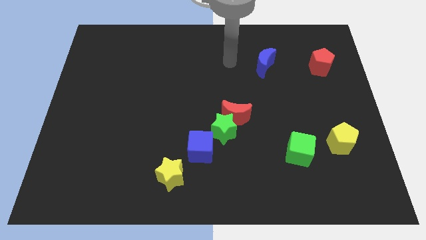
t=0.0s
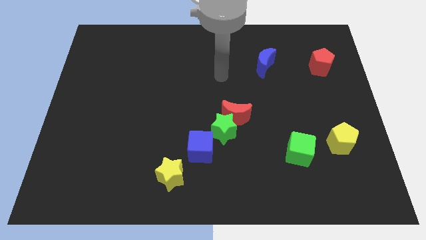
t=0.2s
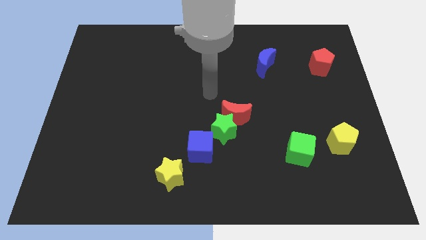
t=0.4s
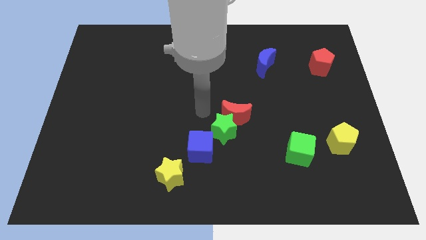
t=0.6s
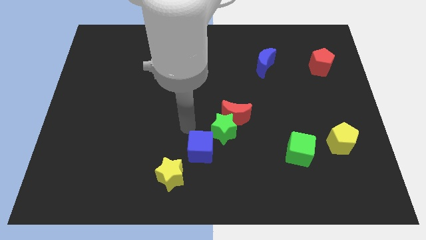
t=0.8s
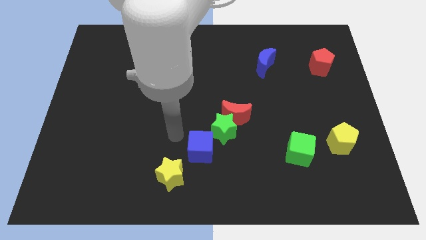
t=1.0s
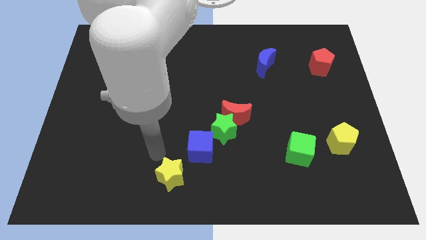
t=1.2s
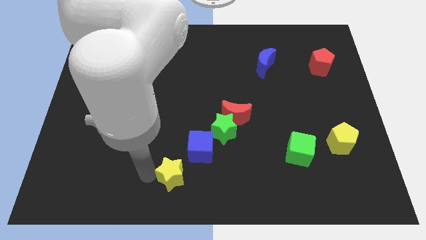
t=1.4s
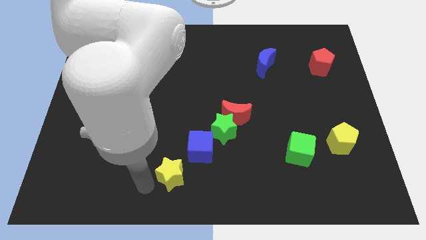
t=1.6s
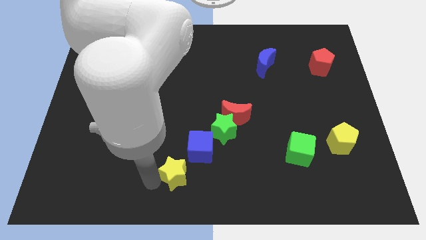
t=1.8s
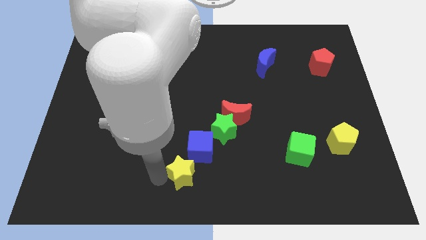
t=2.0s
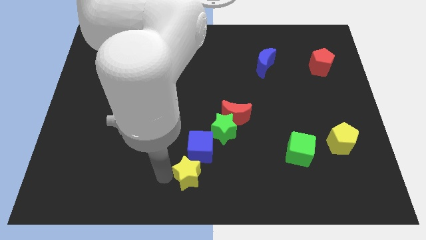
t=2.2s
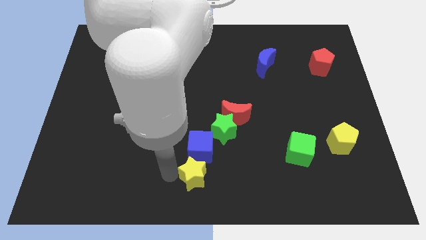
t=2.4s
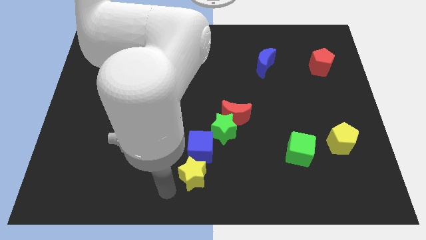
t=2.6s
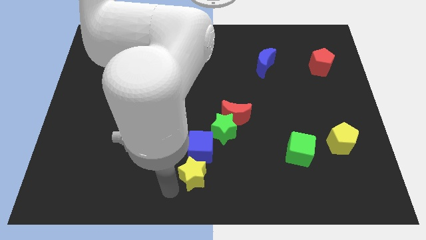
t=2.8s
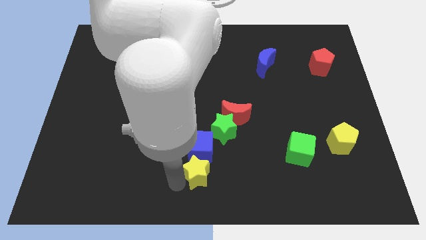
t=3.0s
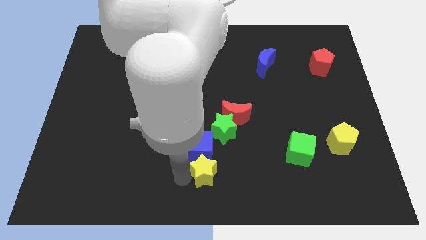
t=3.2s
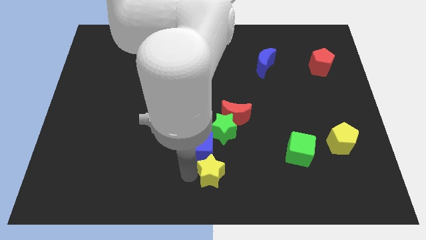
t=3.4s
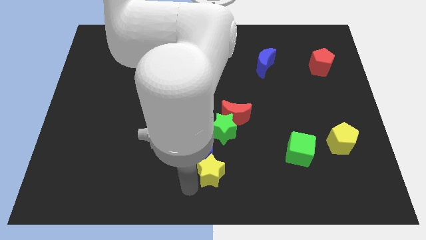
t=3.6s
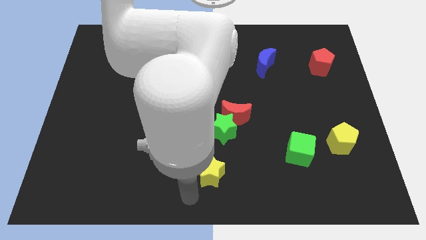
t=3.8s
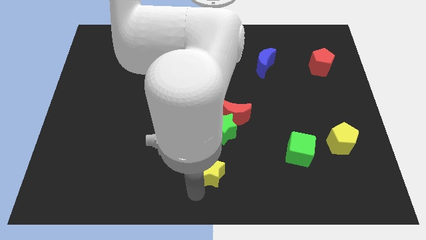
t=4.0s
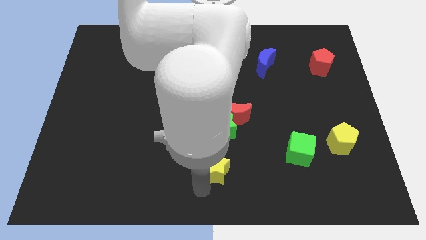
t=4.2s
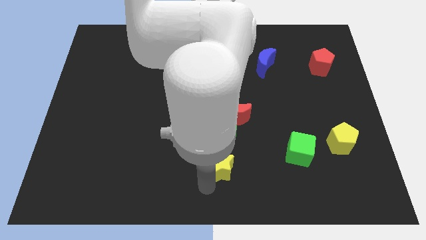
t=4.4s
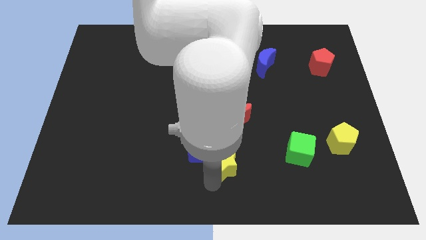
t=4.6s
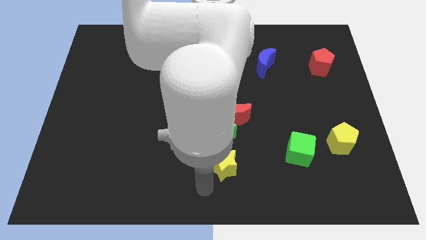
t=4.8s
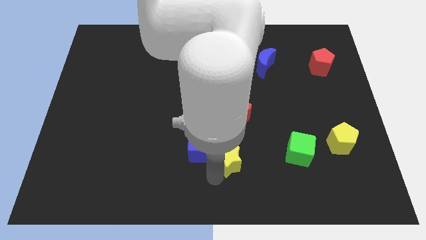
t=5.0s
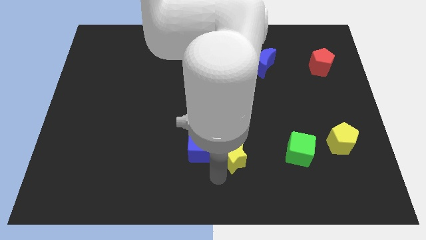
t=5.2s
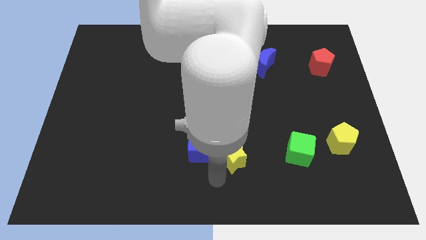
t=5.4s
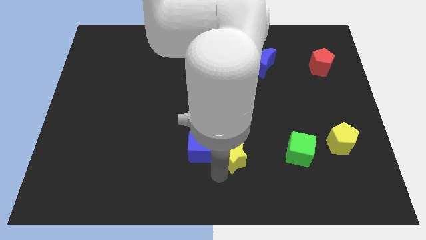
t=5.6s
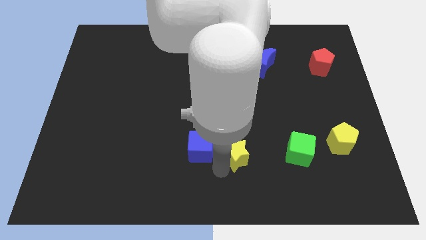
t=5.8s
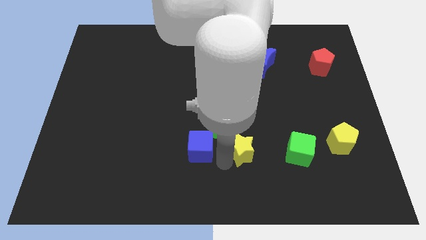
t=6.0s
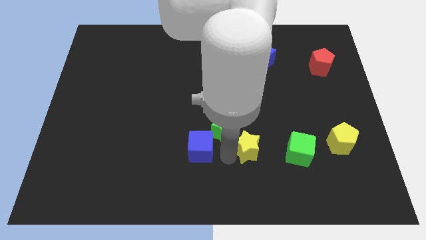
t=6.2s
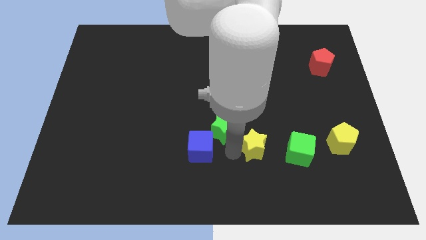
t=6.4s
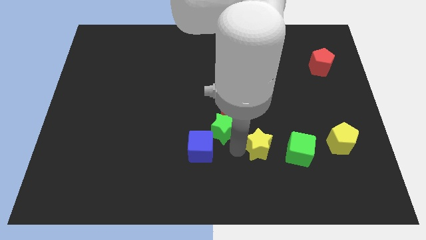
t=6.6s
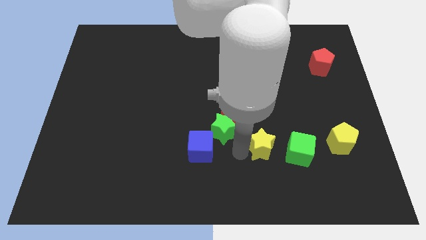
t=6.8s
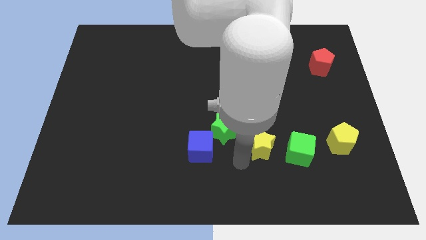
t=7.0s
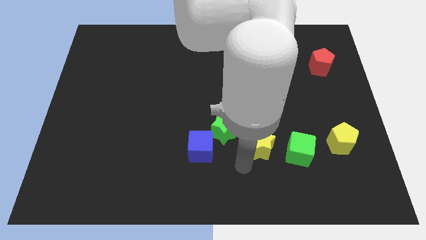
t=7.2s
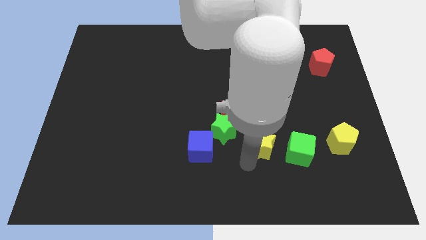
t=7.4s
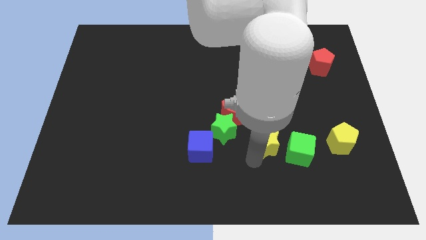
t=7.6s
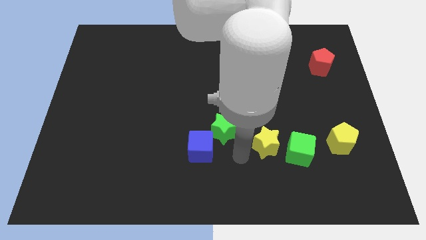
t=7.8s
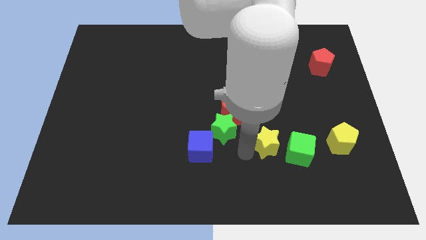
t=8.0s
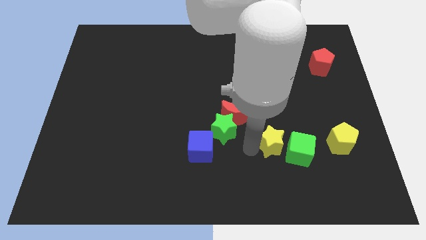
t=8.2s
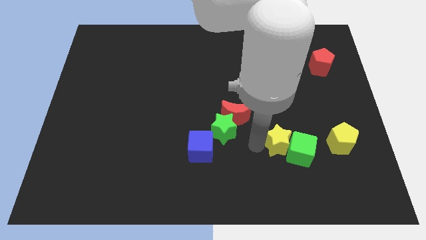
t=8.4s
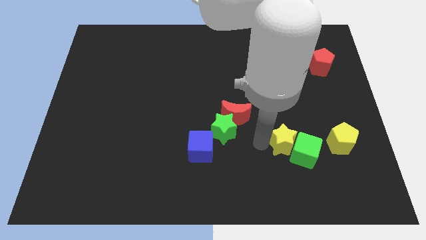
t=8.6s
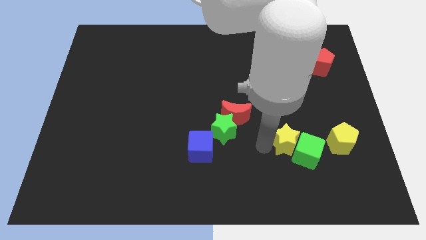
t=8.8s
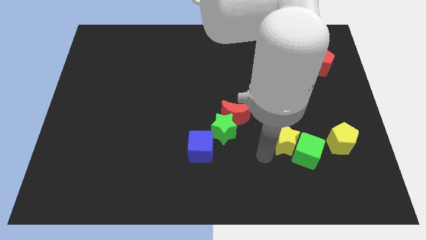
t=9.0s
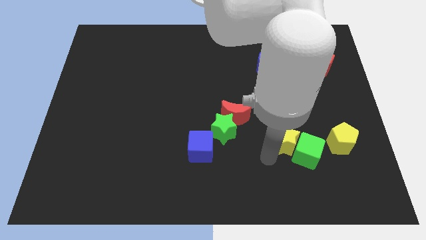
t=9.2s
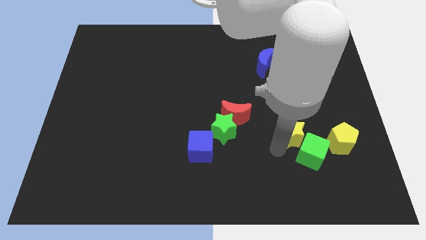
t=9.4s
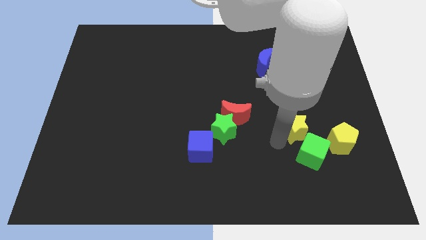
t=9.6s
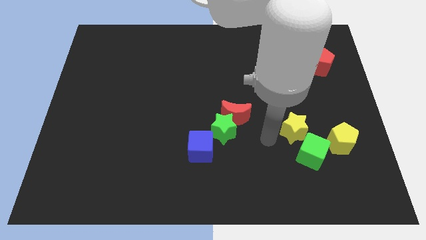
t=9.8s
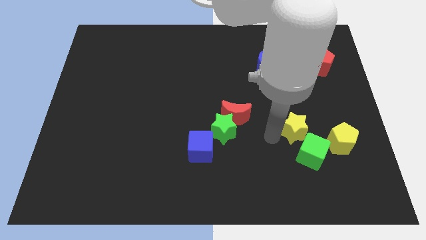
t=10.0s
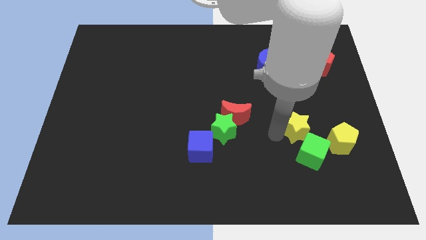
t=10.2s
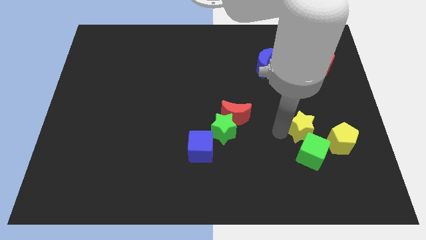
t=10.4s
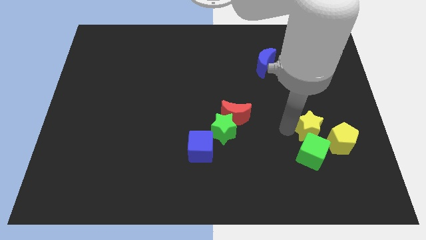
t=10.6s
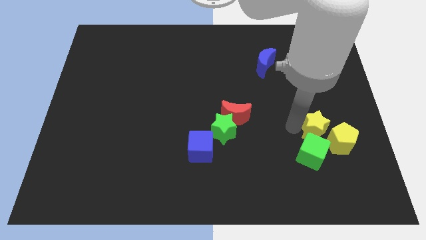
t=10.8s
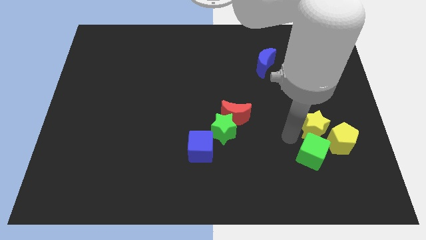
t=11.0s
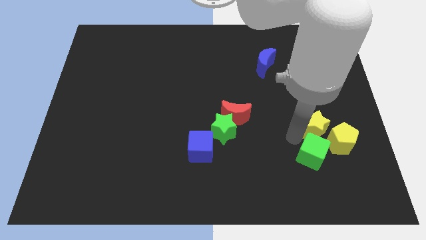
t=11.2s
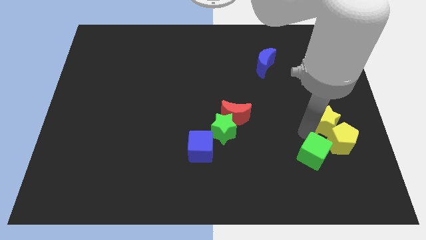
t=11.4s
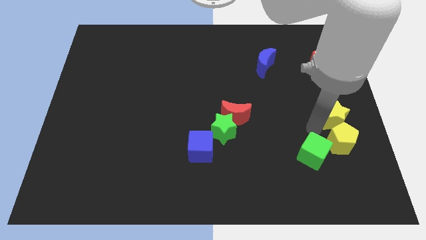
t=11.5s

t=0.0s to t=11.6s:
put the yellow star to the right side

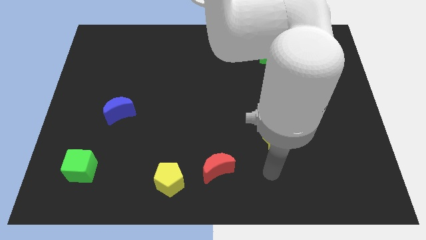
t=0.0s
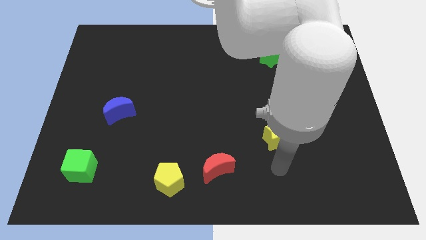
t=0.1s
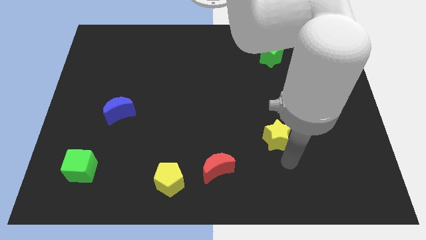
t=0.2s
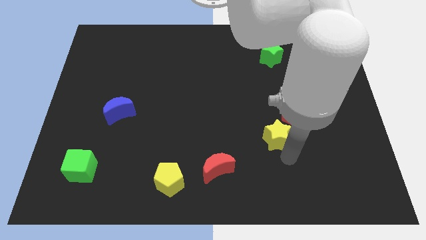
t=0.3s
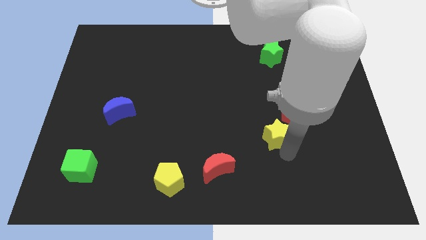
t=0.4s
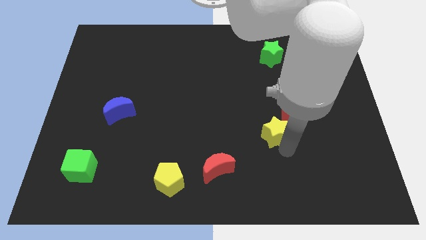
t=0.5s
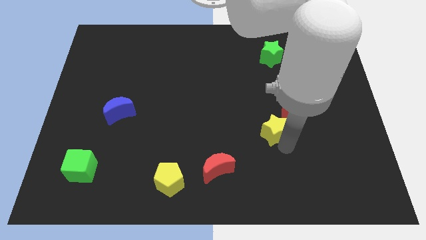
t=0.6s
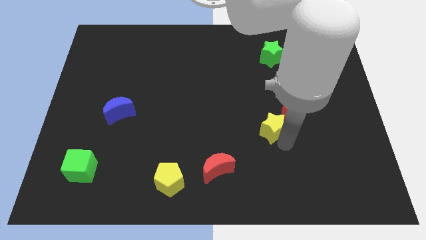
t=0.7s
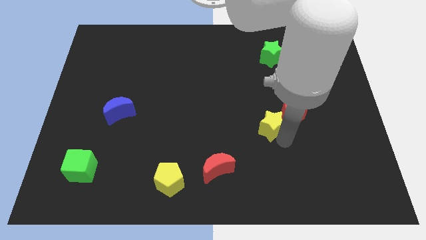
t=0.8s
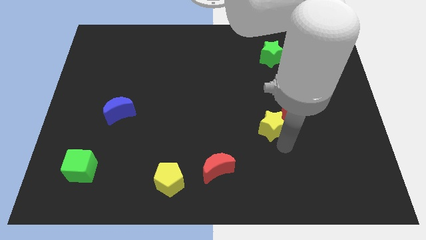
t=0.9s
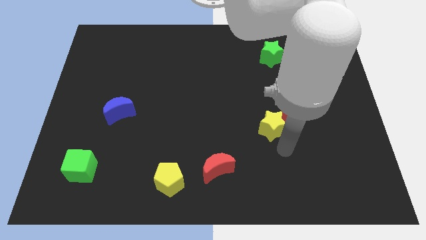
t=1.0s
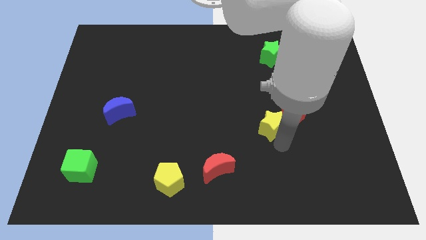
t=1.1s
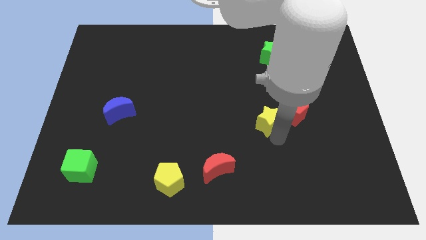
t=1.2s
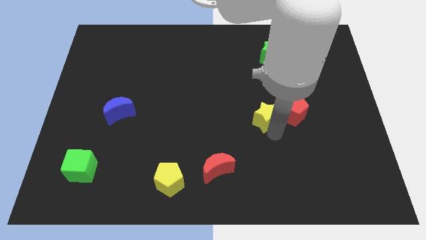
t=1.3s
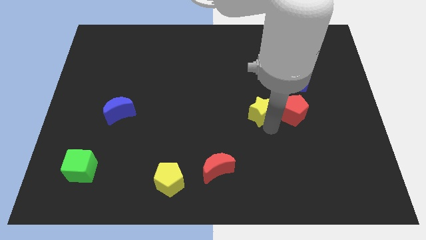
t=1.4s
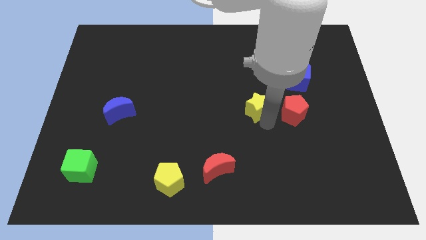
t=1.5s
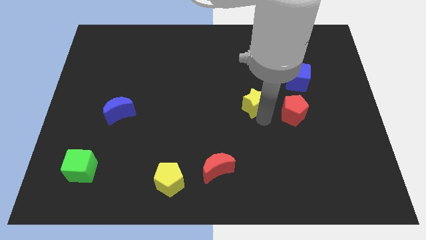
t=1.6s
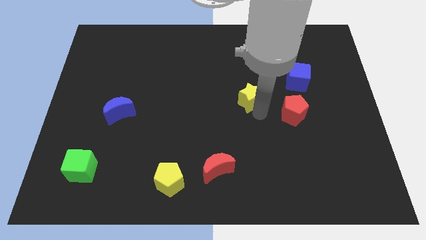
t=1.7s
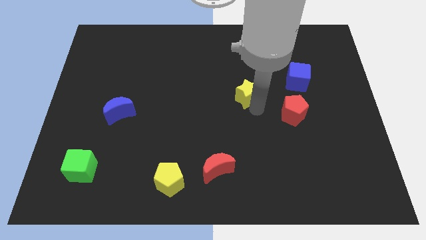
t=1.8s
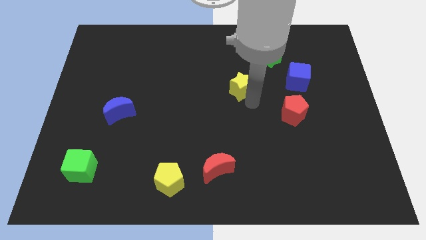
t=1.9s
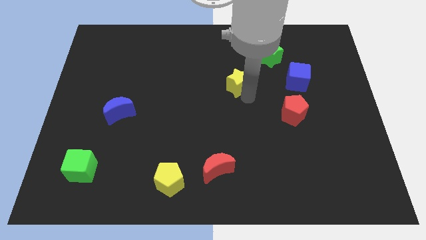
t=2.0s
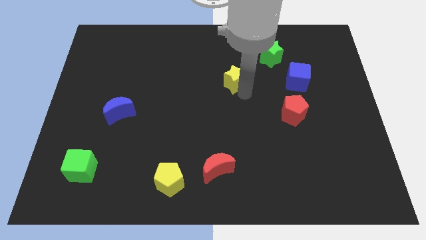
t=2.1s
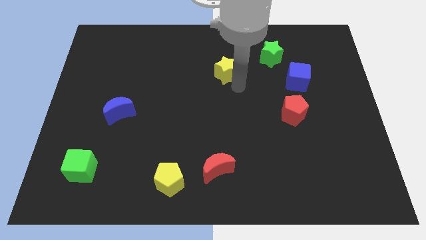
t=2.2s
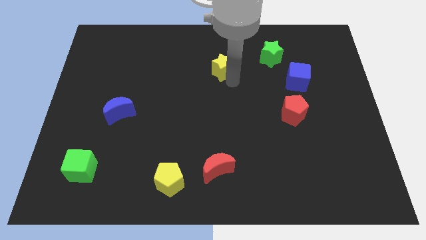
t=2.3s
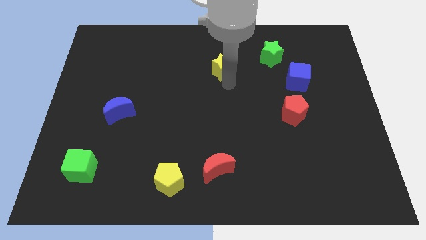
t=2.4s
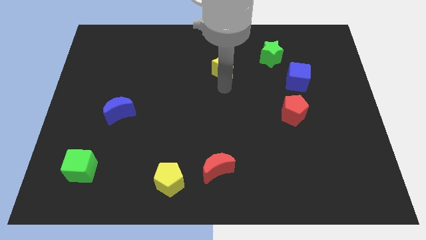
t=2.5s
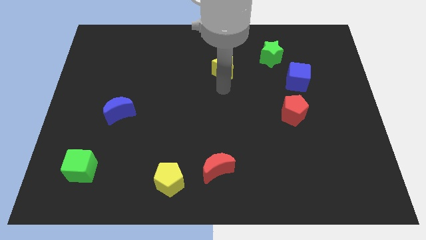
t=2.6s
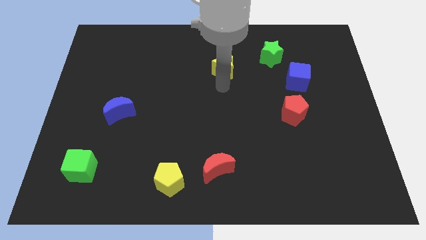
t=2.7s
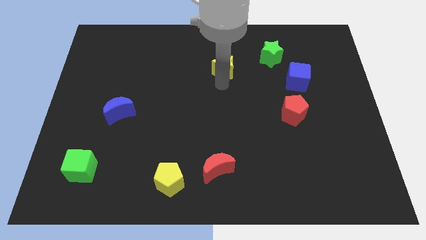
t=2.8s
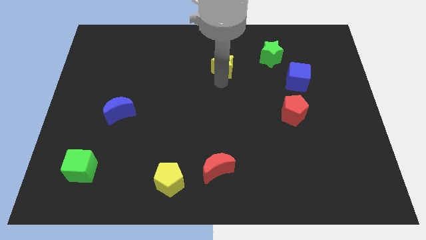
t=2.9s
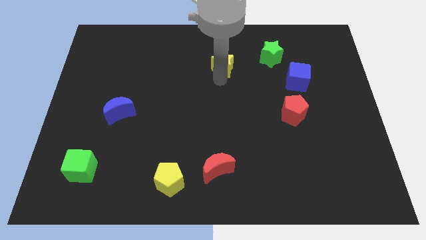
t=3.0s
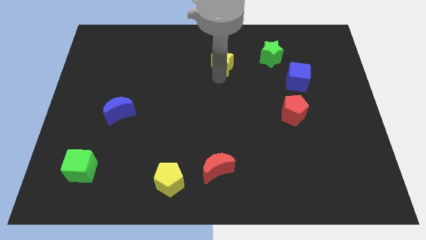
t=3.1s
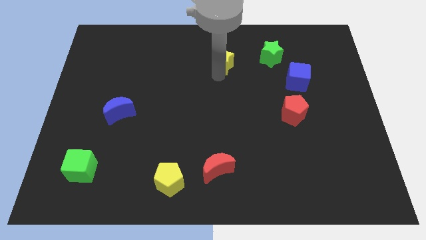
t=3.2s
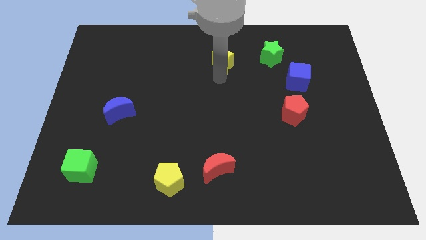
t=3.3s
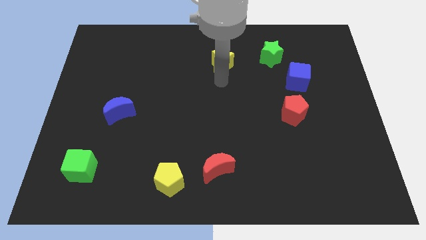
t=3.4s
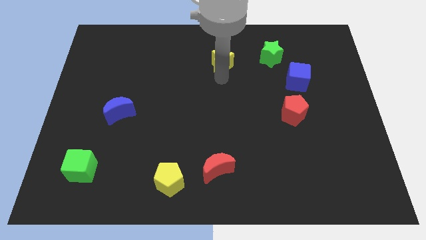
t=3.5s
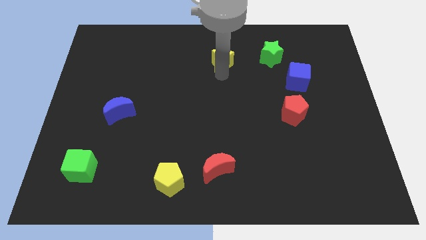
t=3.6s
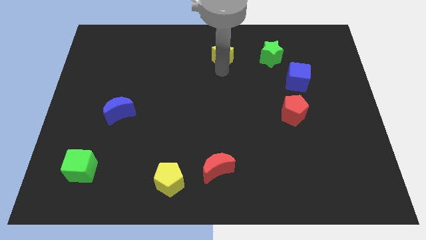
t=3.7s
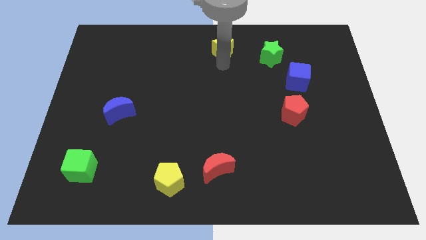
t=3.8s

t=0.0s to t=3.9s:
slide the yellow star to the top
